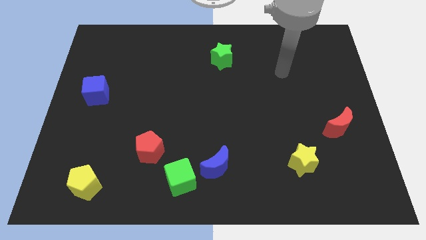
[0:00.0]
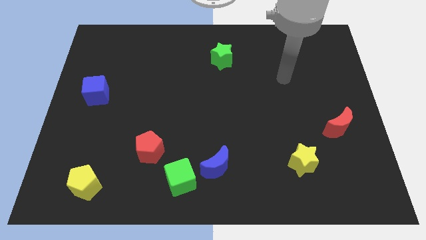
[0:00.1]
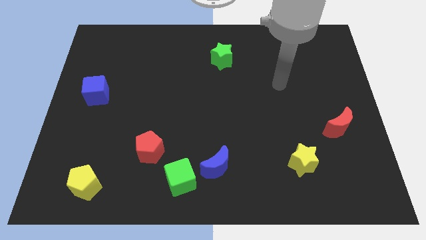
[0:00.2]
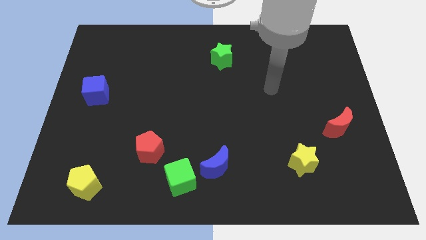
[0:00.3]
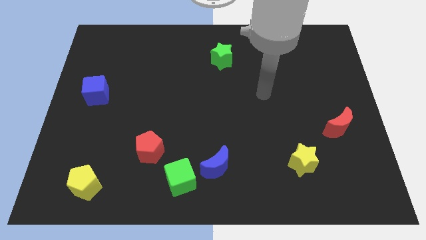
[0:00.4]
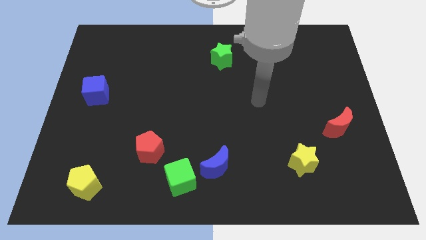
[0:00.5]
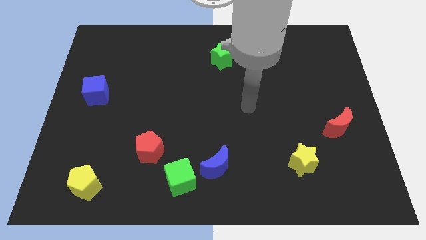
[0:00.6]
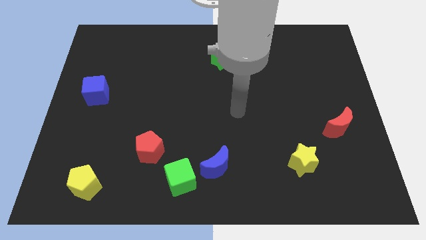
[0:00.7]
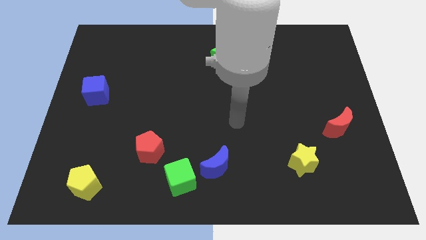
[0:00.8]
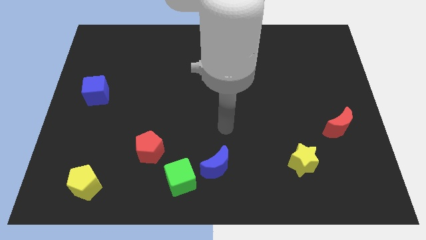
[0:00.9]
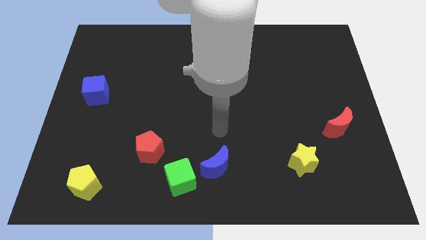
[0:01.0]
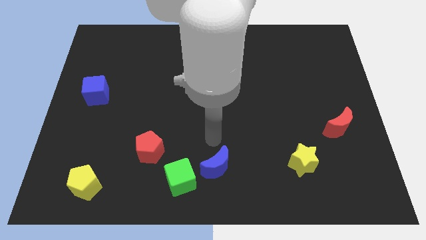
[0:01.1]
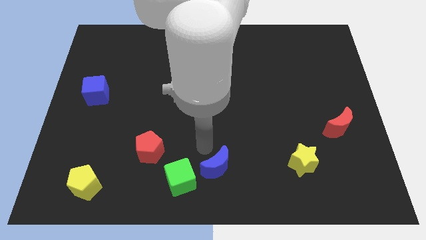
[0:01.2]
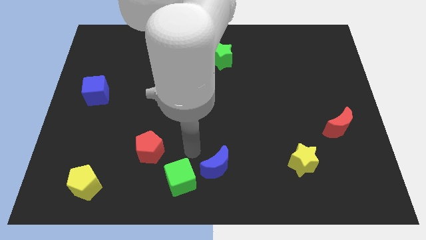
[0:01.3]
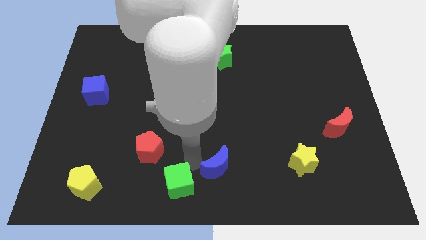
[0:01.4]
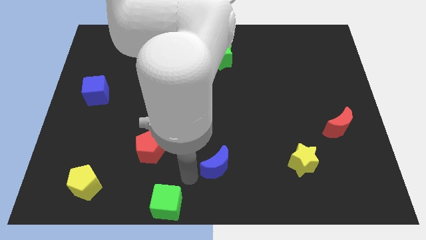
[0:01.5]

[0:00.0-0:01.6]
move the blue moon away from the green cube

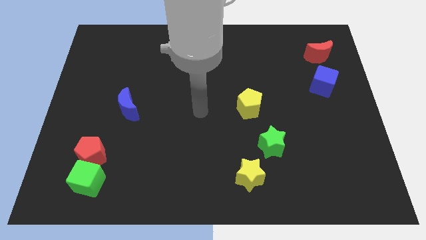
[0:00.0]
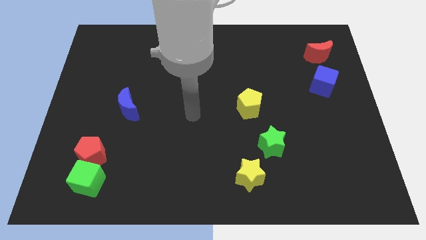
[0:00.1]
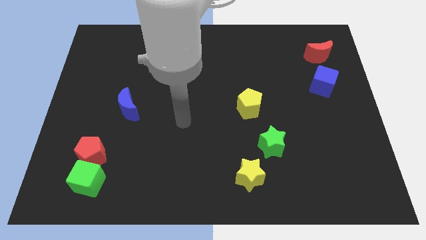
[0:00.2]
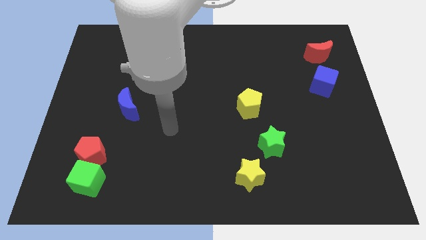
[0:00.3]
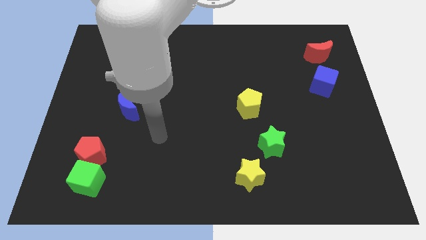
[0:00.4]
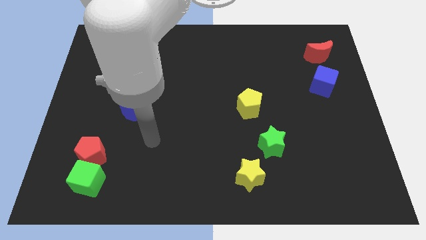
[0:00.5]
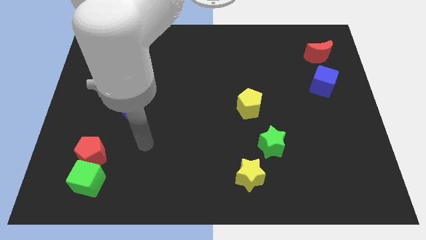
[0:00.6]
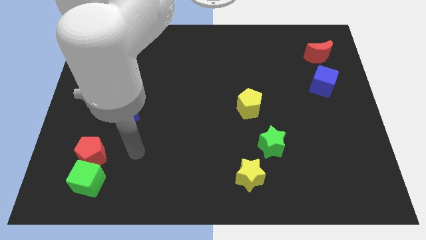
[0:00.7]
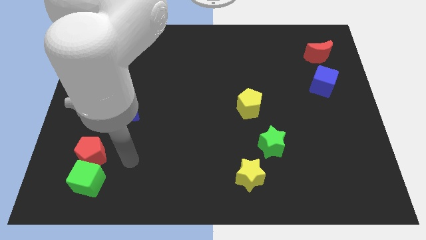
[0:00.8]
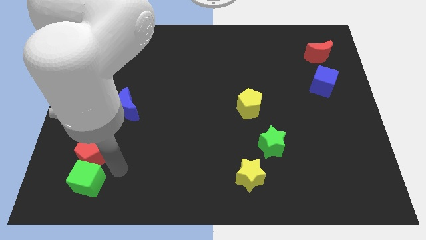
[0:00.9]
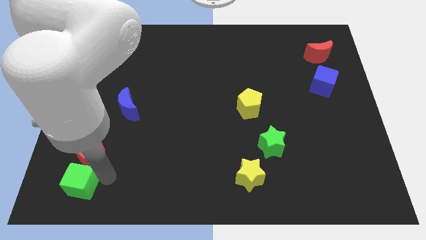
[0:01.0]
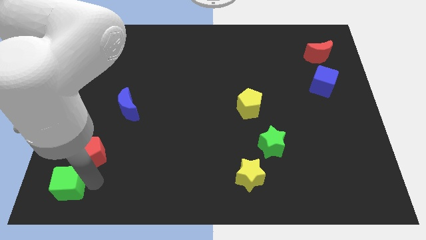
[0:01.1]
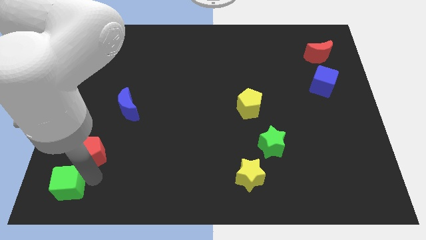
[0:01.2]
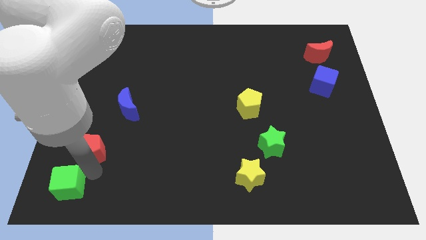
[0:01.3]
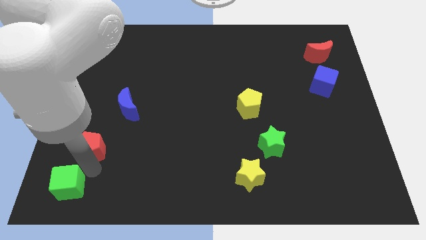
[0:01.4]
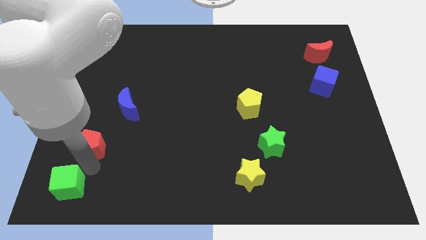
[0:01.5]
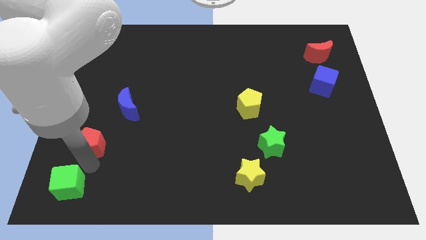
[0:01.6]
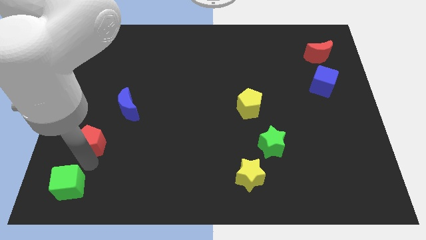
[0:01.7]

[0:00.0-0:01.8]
separate the red pentagon from the green cube

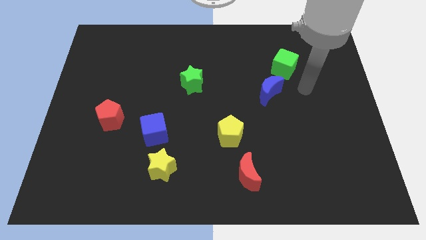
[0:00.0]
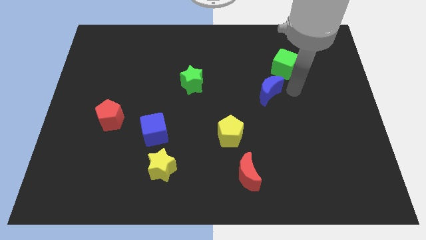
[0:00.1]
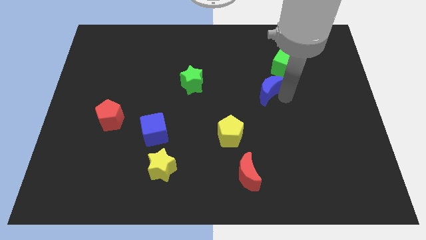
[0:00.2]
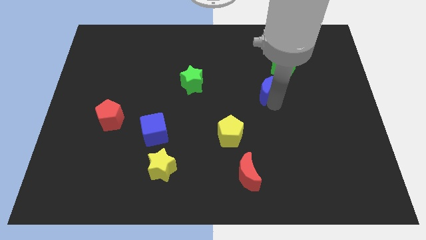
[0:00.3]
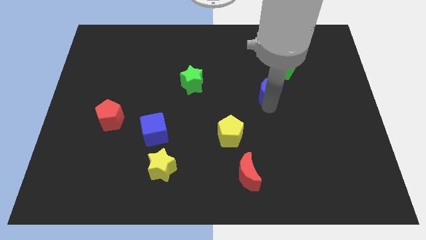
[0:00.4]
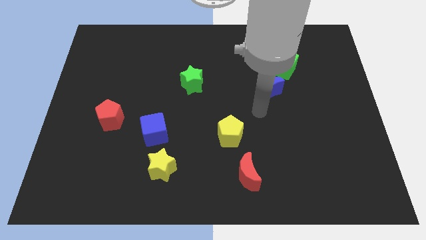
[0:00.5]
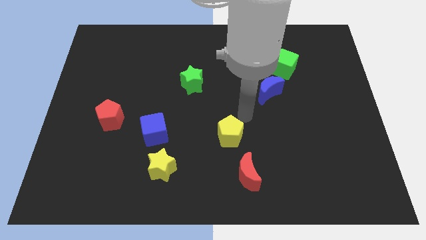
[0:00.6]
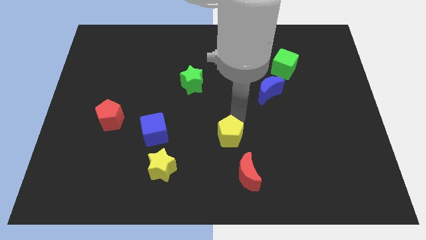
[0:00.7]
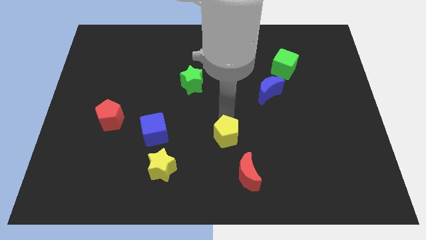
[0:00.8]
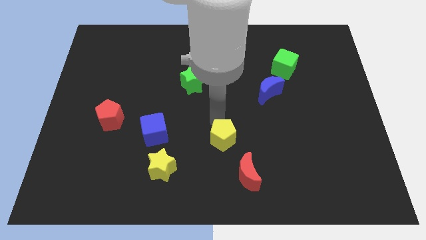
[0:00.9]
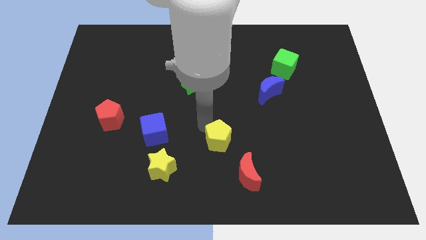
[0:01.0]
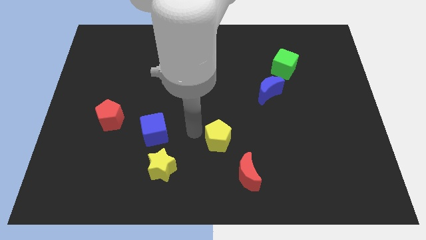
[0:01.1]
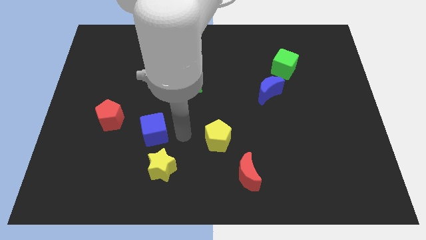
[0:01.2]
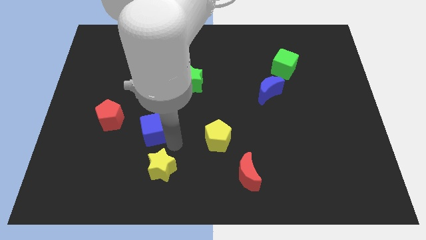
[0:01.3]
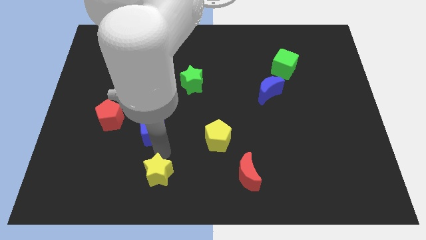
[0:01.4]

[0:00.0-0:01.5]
separate the blue cube from the yellow star

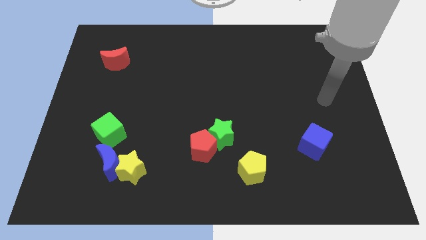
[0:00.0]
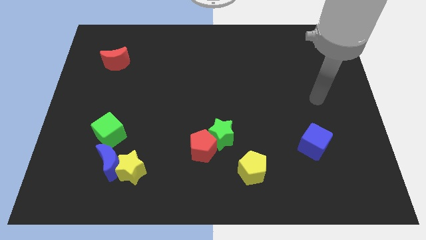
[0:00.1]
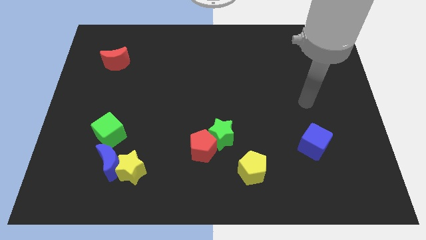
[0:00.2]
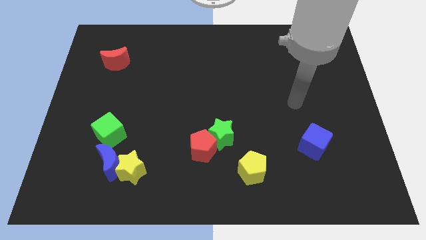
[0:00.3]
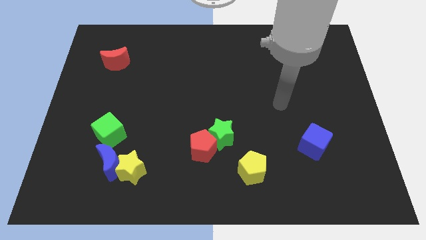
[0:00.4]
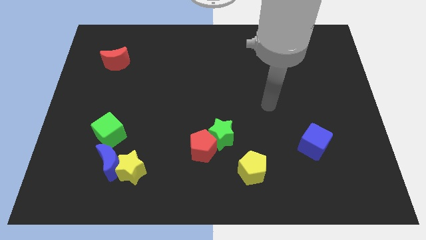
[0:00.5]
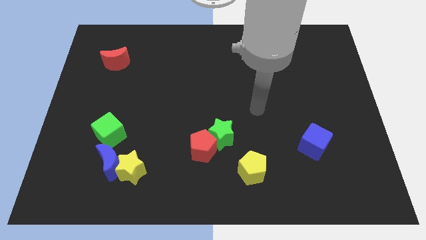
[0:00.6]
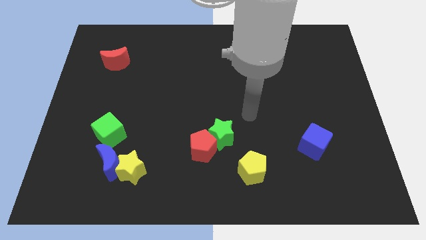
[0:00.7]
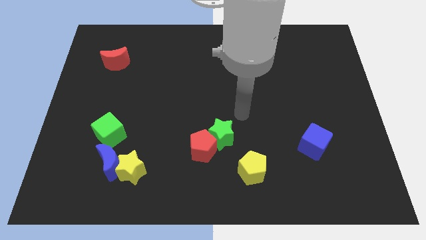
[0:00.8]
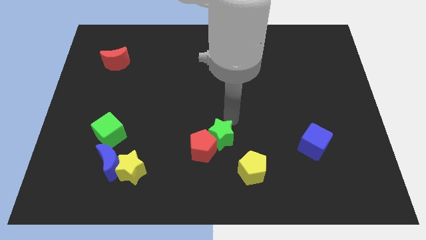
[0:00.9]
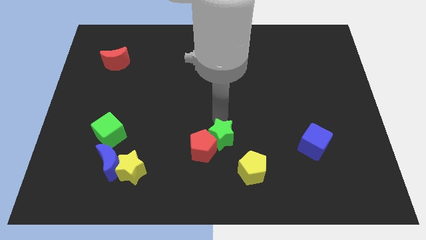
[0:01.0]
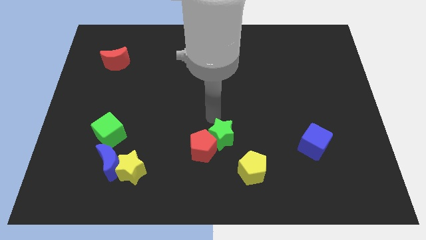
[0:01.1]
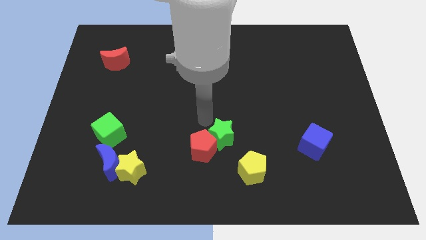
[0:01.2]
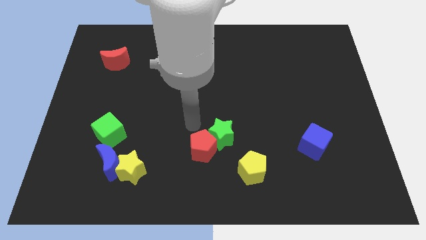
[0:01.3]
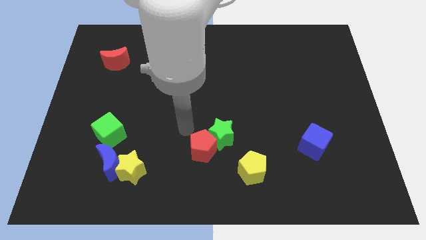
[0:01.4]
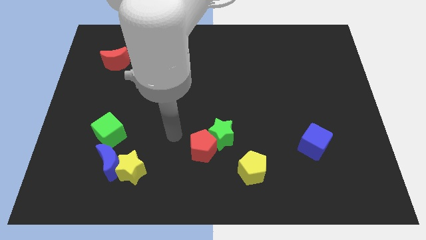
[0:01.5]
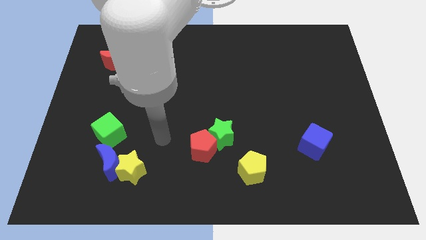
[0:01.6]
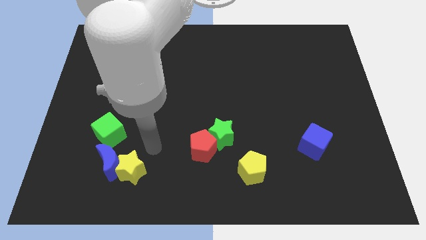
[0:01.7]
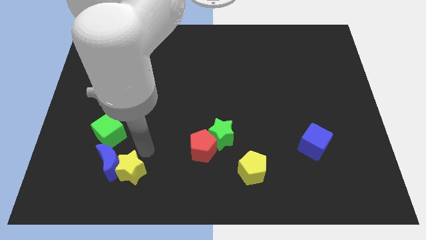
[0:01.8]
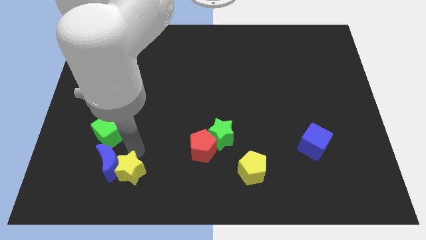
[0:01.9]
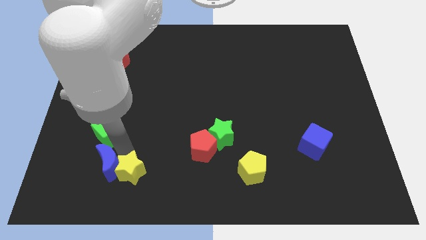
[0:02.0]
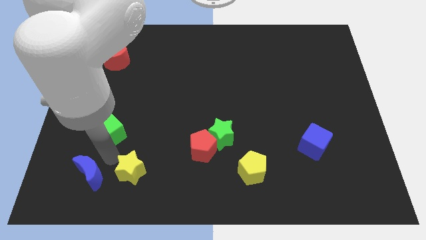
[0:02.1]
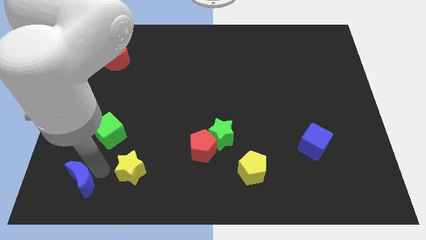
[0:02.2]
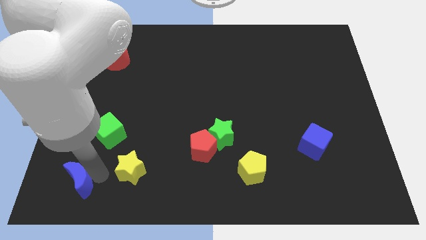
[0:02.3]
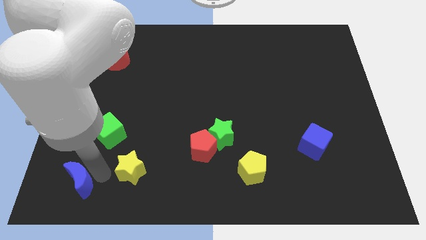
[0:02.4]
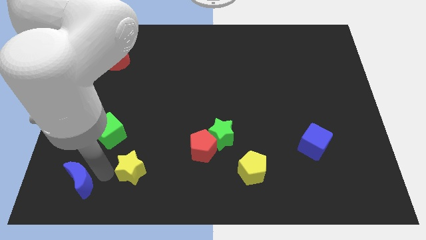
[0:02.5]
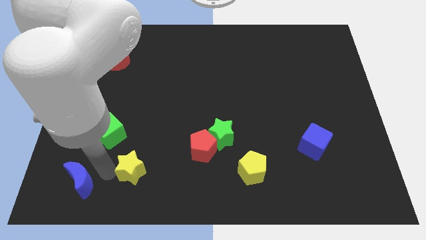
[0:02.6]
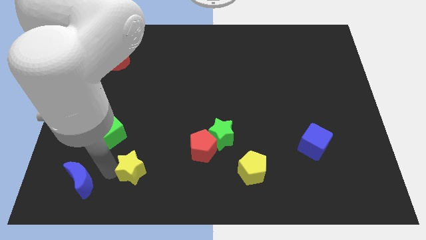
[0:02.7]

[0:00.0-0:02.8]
move the yellow star away from the blue moon

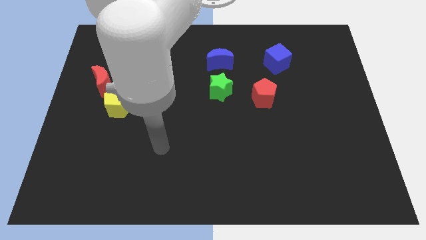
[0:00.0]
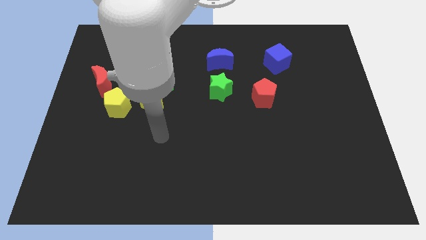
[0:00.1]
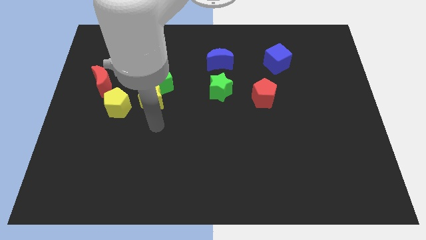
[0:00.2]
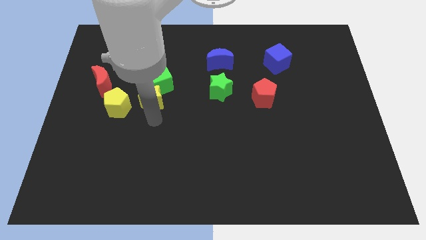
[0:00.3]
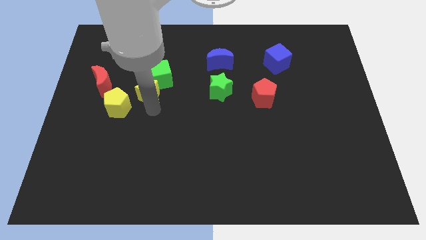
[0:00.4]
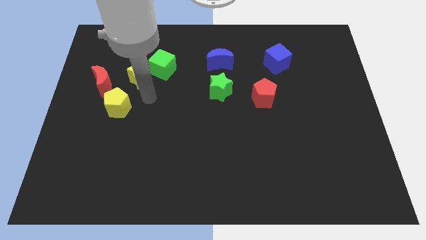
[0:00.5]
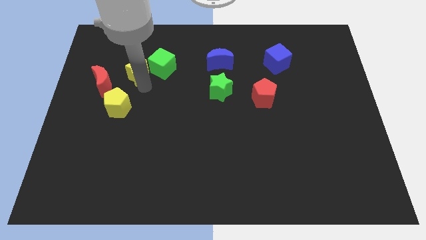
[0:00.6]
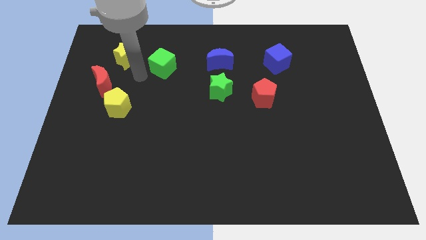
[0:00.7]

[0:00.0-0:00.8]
separate the green cube from the yellow star

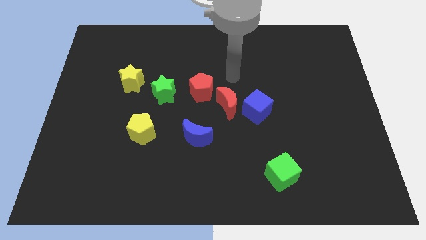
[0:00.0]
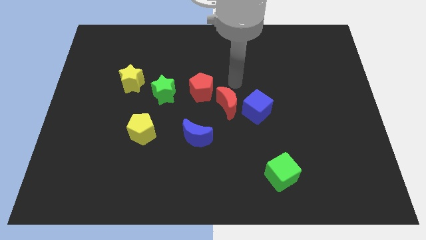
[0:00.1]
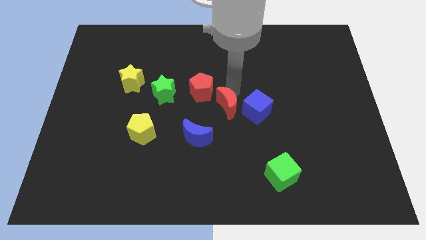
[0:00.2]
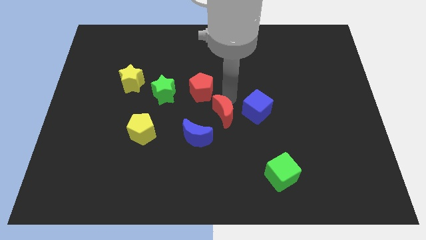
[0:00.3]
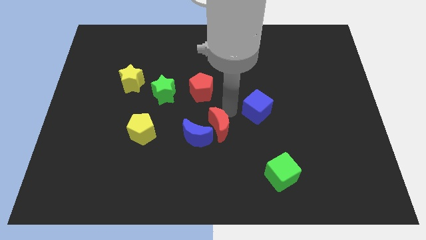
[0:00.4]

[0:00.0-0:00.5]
pull the blue cube apart from the red moon

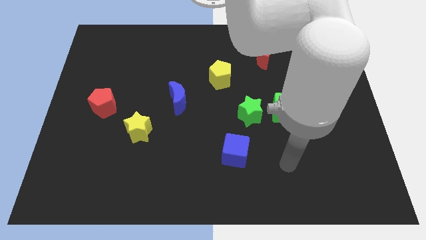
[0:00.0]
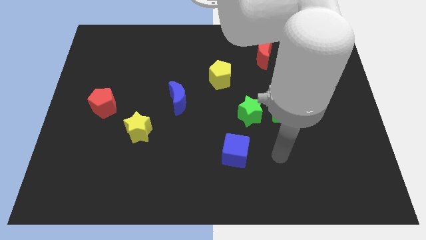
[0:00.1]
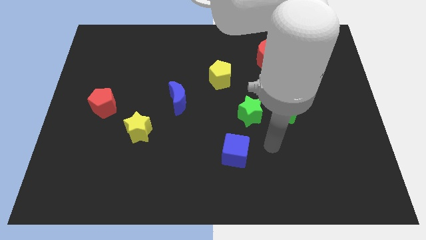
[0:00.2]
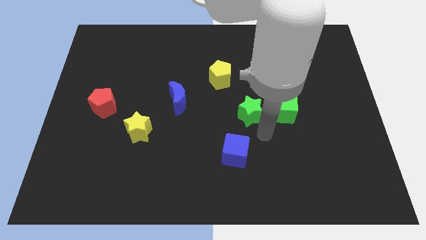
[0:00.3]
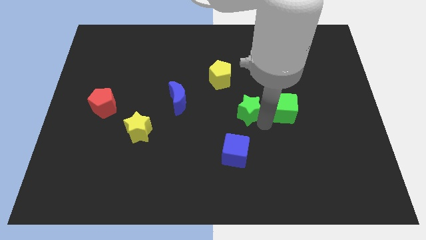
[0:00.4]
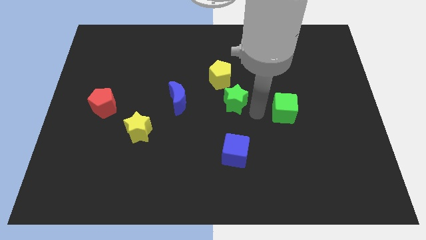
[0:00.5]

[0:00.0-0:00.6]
pull the green cube apart from the green star
